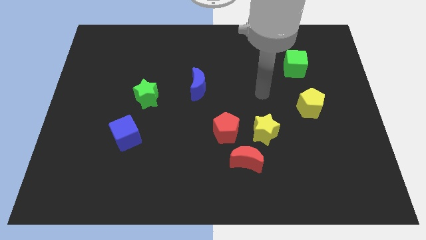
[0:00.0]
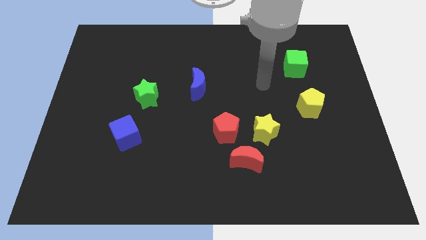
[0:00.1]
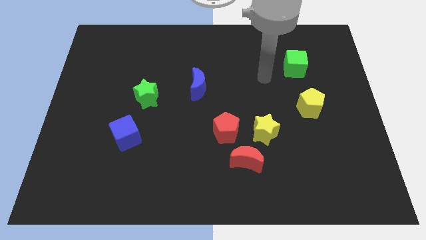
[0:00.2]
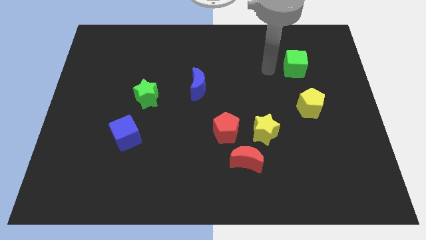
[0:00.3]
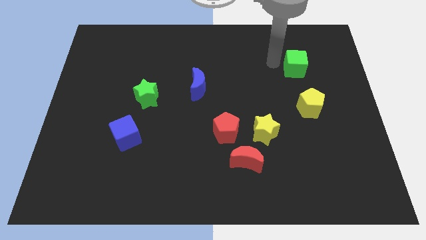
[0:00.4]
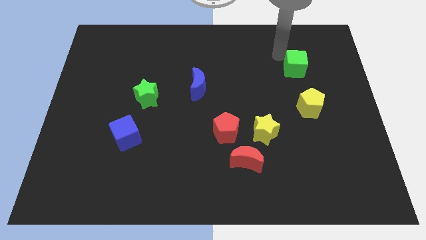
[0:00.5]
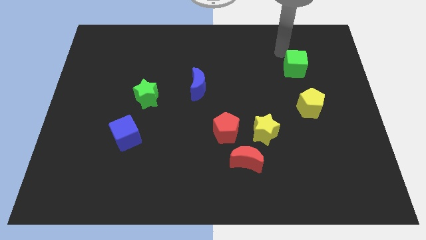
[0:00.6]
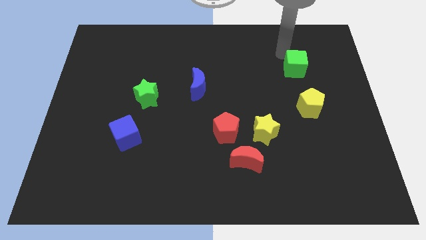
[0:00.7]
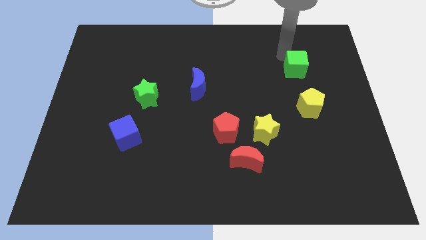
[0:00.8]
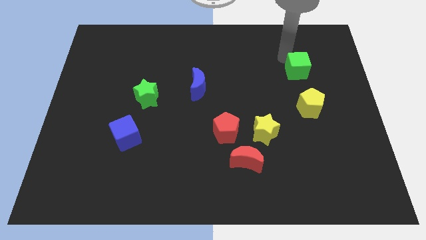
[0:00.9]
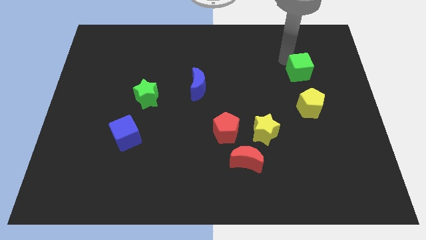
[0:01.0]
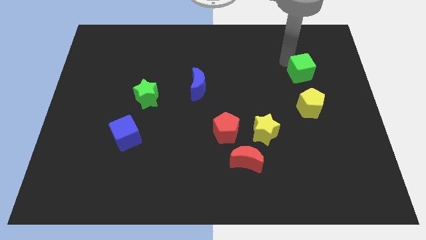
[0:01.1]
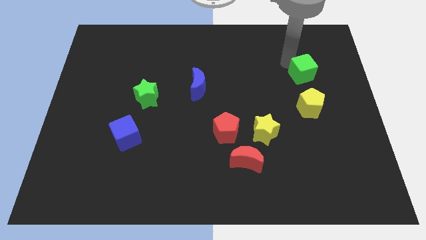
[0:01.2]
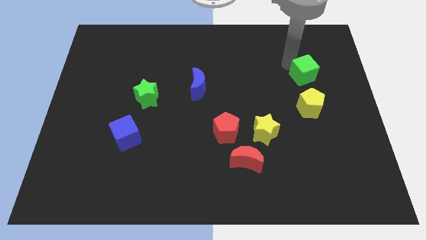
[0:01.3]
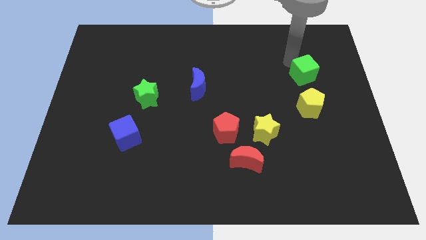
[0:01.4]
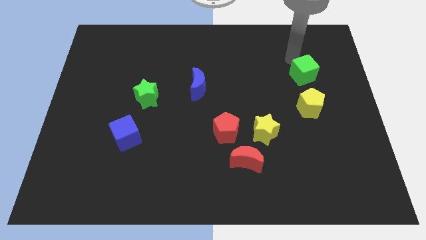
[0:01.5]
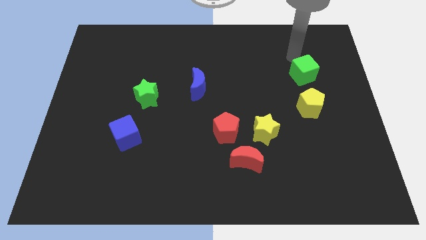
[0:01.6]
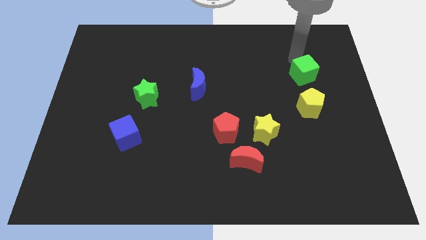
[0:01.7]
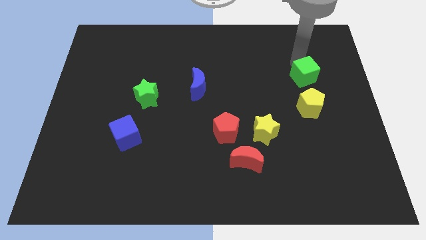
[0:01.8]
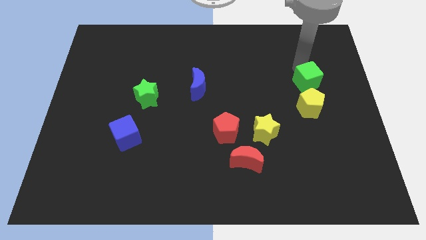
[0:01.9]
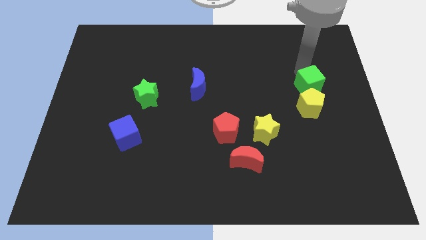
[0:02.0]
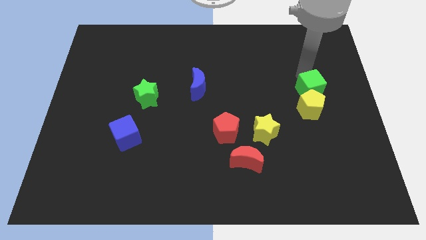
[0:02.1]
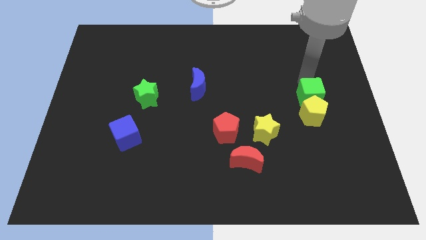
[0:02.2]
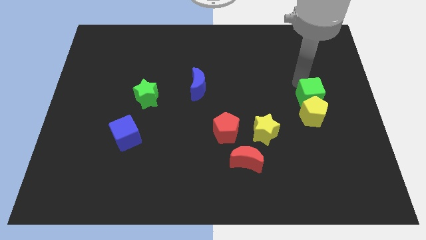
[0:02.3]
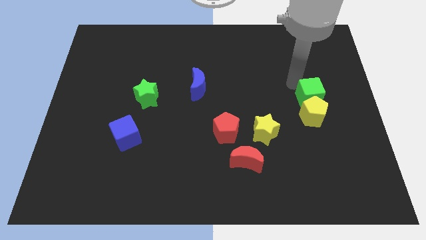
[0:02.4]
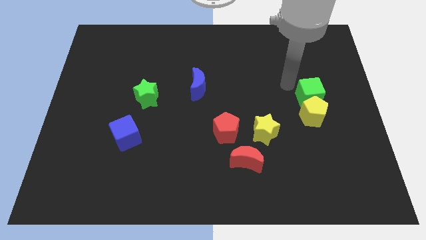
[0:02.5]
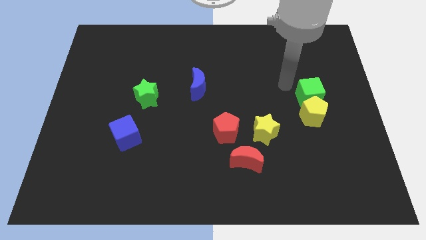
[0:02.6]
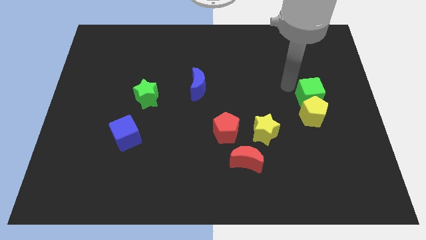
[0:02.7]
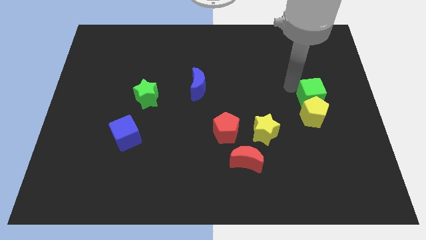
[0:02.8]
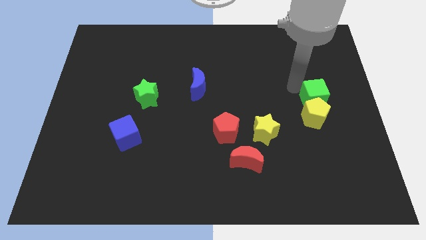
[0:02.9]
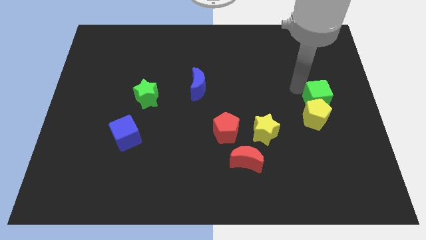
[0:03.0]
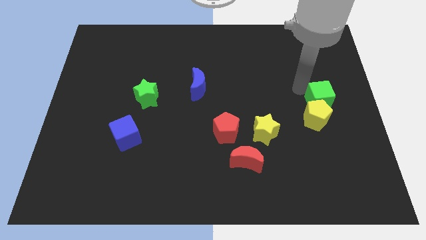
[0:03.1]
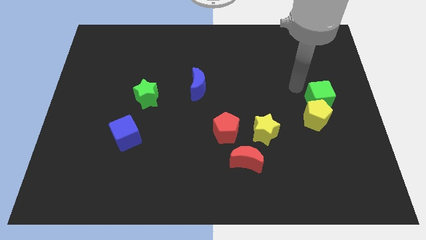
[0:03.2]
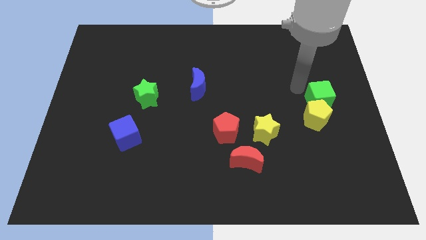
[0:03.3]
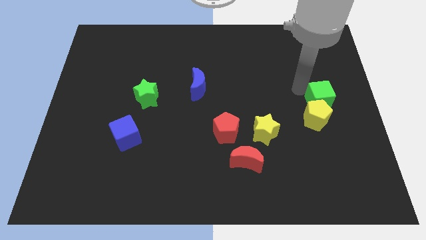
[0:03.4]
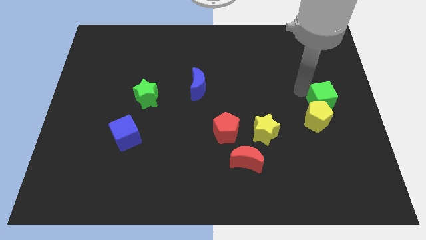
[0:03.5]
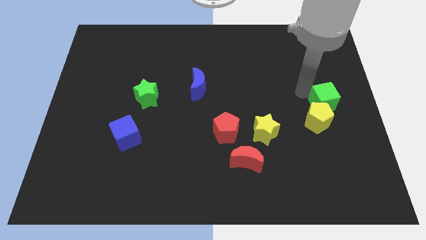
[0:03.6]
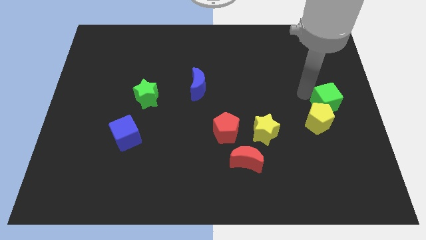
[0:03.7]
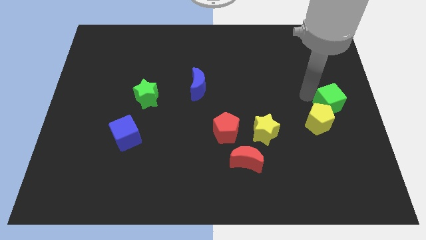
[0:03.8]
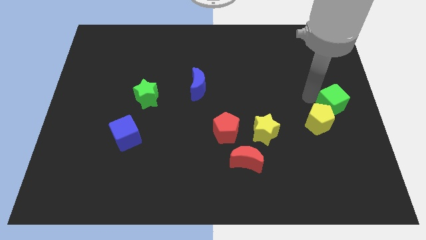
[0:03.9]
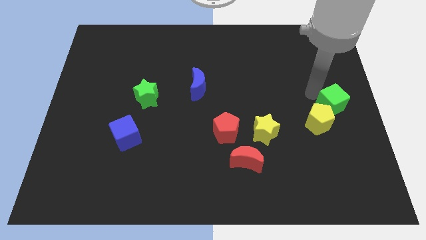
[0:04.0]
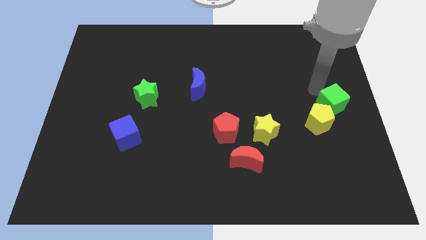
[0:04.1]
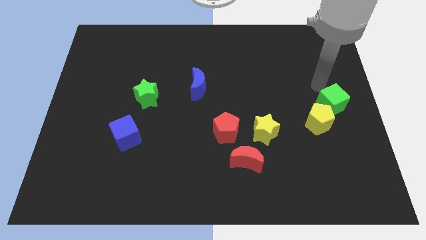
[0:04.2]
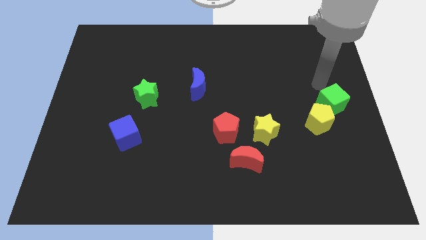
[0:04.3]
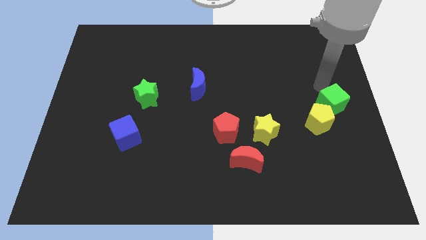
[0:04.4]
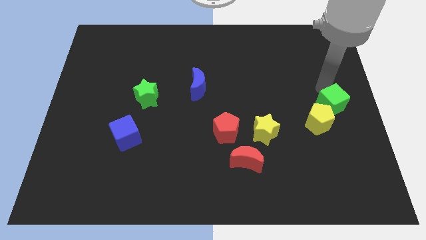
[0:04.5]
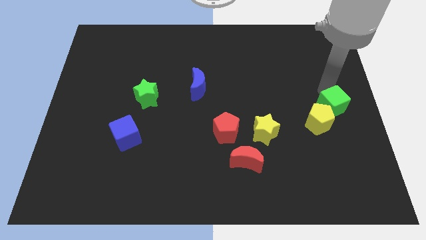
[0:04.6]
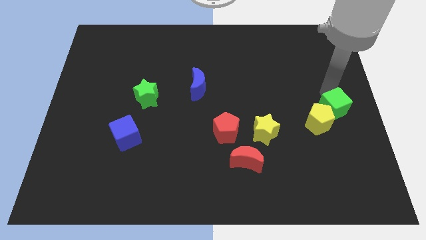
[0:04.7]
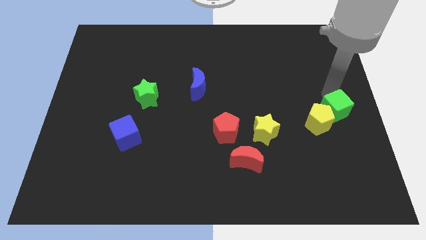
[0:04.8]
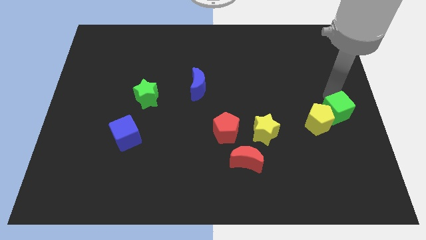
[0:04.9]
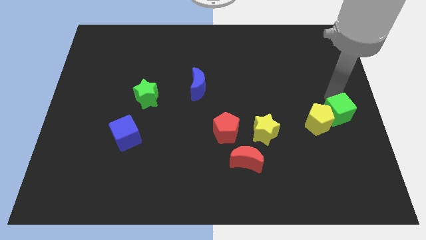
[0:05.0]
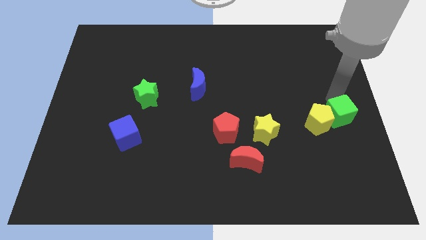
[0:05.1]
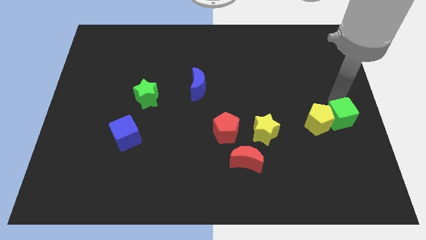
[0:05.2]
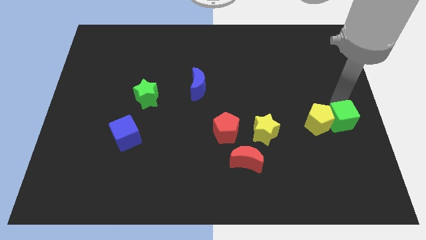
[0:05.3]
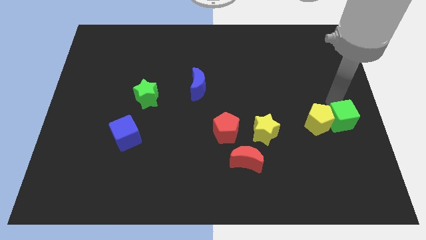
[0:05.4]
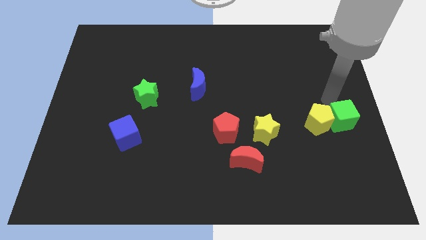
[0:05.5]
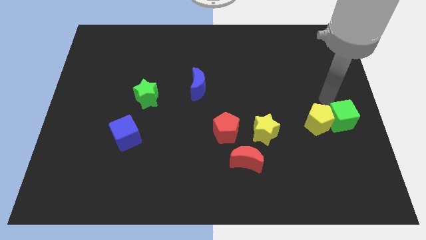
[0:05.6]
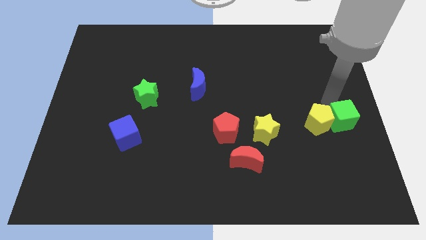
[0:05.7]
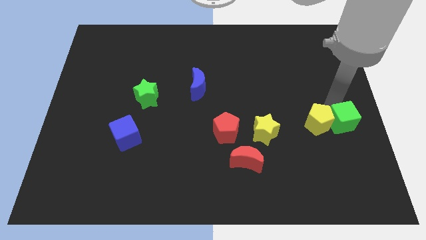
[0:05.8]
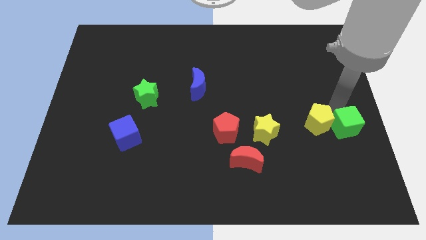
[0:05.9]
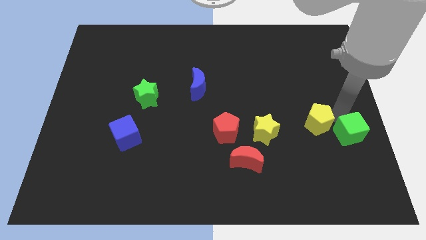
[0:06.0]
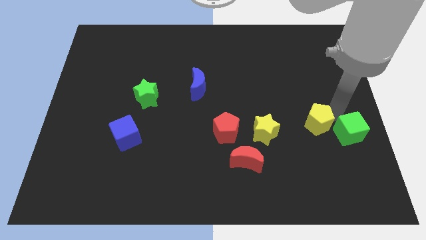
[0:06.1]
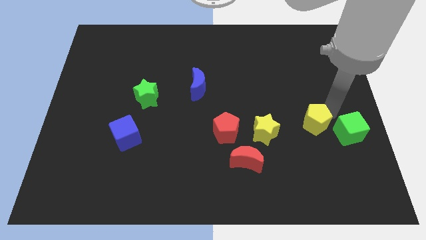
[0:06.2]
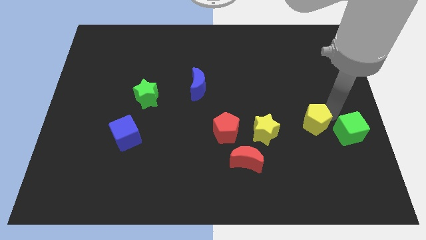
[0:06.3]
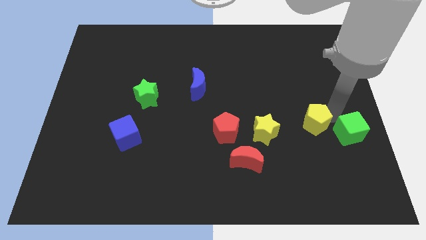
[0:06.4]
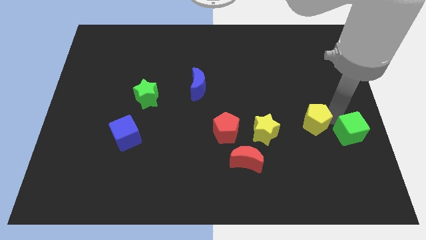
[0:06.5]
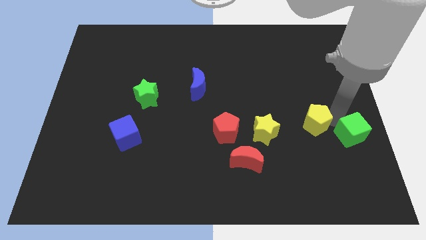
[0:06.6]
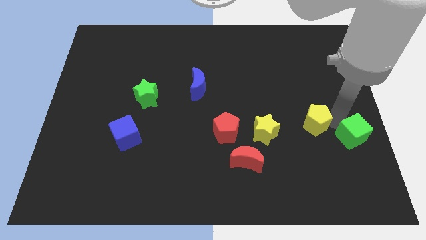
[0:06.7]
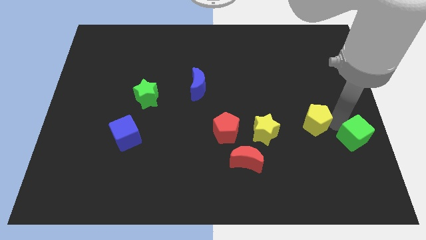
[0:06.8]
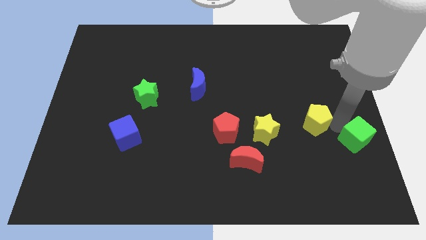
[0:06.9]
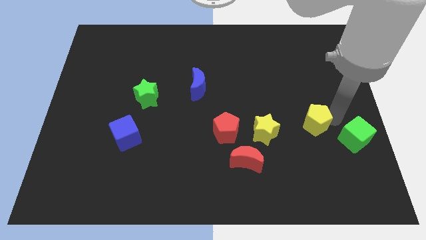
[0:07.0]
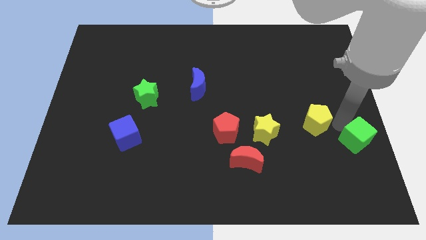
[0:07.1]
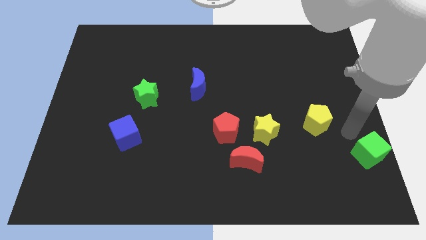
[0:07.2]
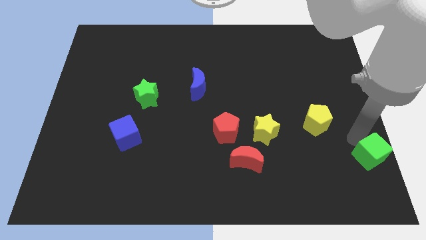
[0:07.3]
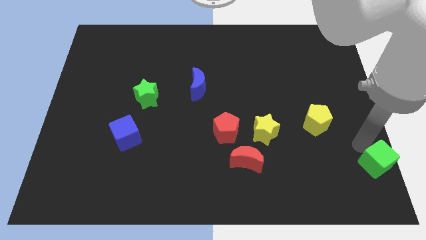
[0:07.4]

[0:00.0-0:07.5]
push the green cube to the bottom right
